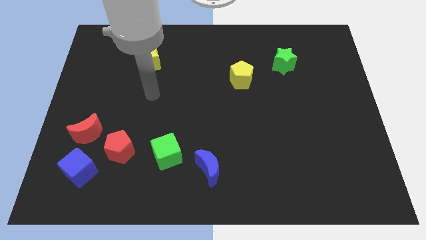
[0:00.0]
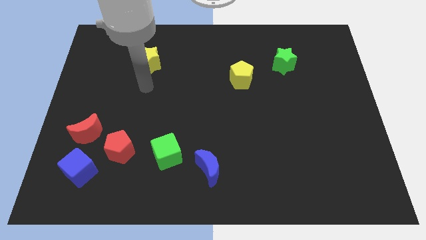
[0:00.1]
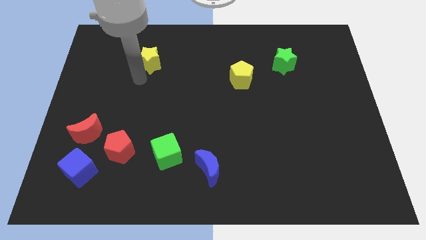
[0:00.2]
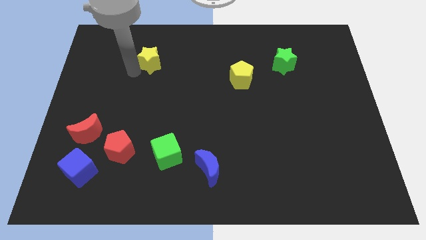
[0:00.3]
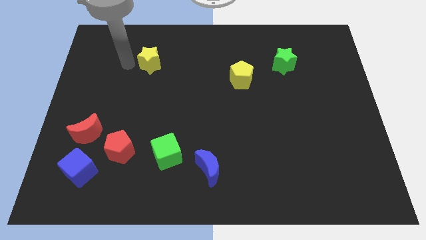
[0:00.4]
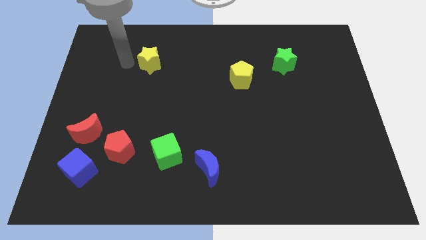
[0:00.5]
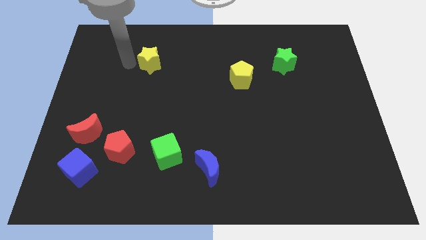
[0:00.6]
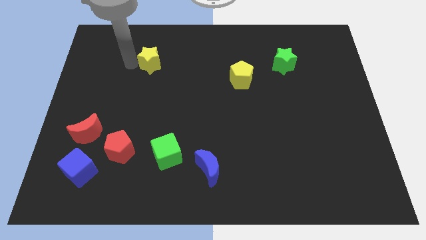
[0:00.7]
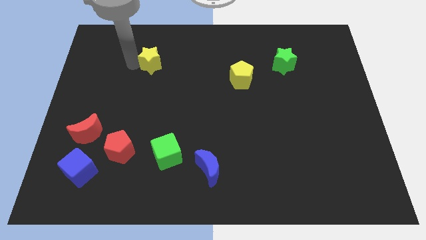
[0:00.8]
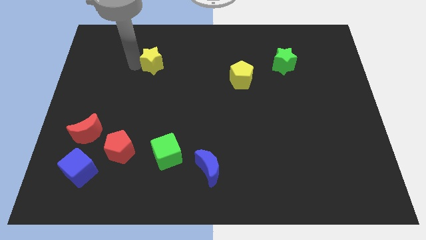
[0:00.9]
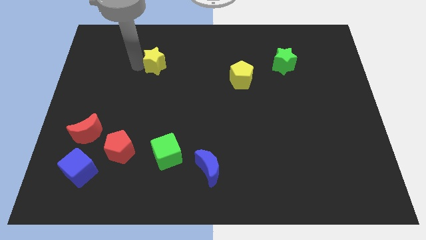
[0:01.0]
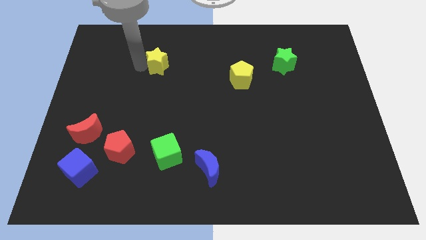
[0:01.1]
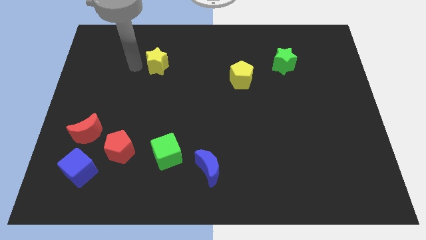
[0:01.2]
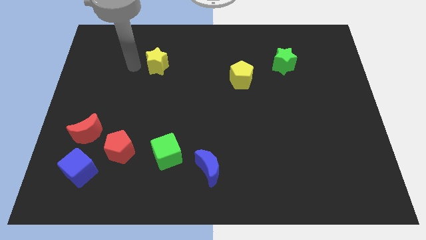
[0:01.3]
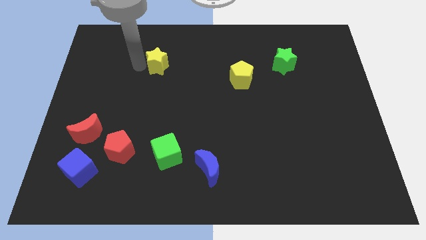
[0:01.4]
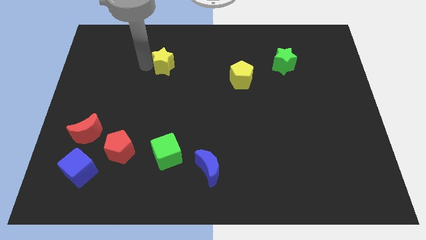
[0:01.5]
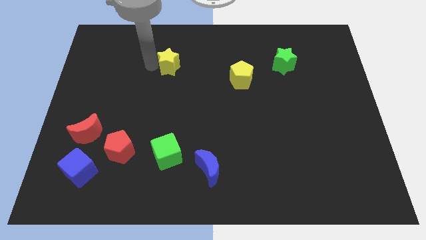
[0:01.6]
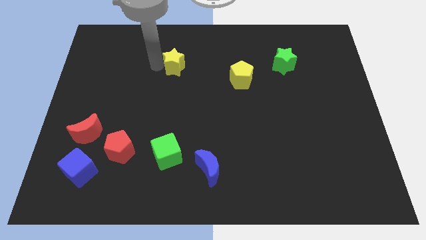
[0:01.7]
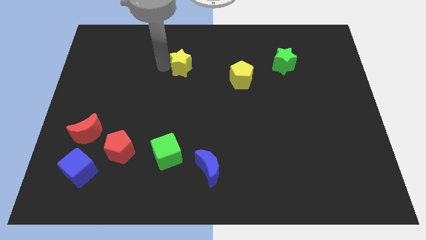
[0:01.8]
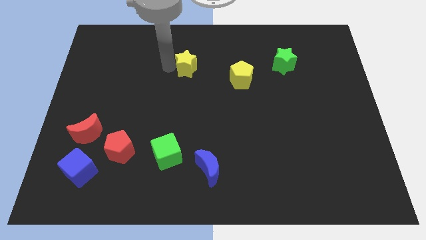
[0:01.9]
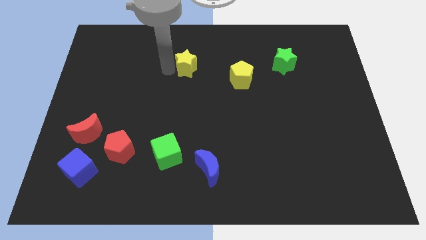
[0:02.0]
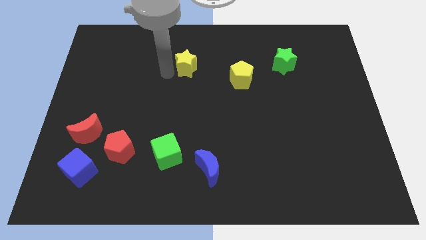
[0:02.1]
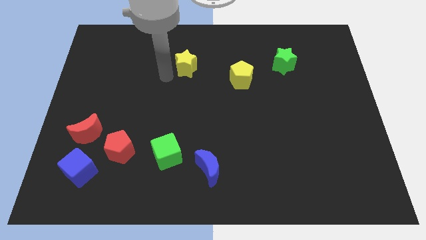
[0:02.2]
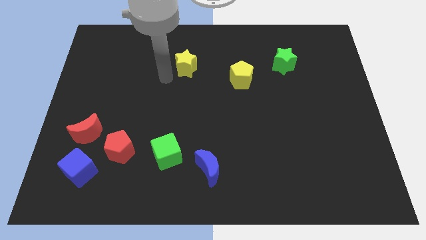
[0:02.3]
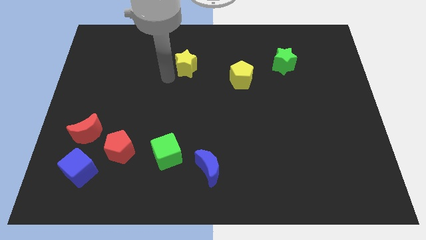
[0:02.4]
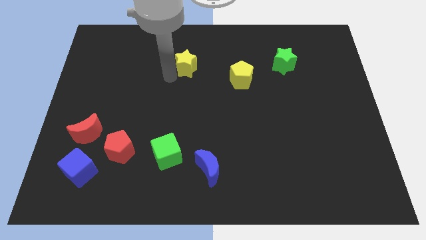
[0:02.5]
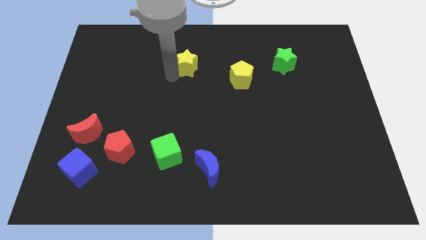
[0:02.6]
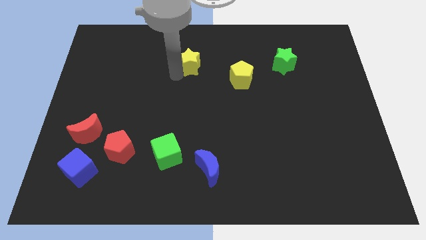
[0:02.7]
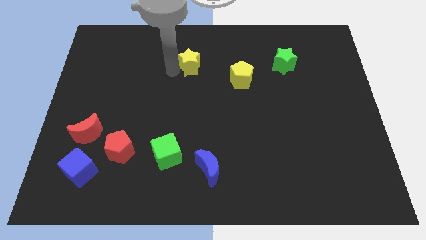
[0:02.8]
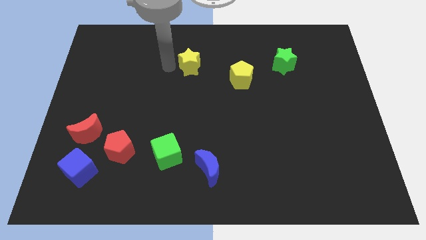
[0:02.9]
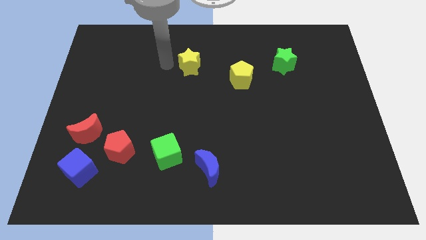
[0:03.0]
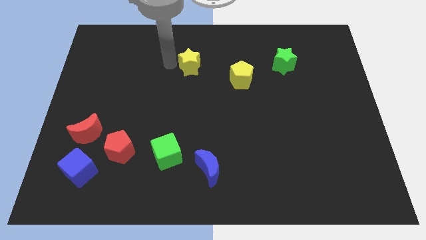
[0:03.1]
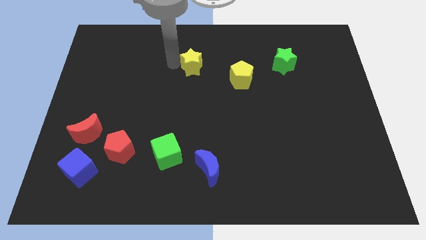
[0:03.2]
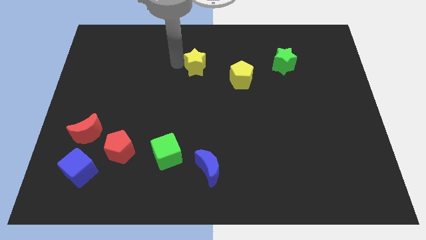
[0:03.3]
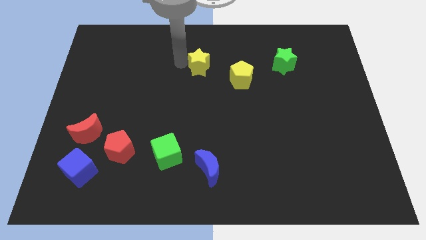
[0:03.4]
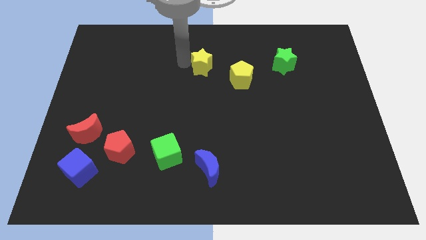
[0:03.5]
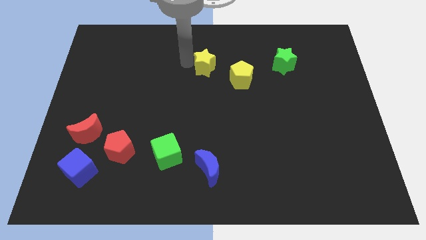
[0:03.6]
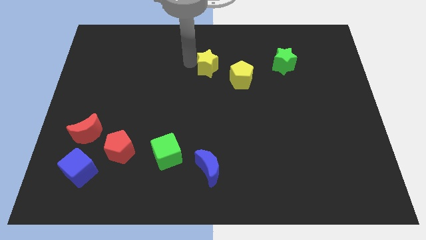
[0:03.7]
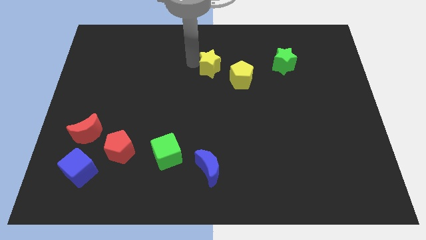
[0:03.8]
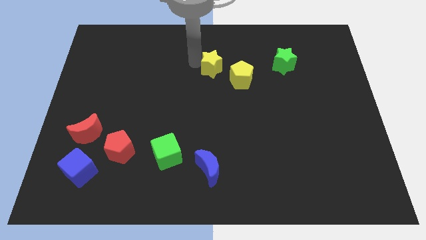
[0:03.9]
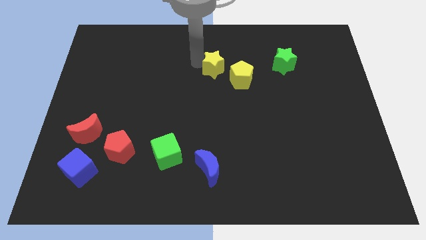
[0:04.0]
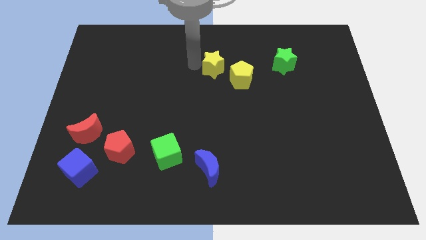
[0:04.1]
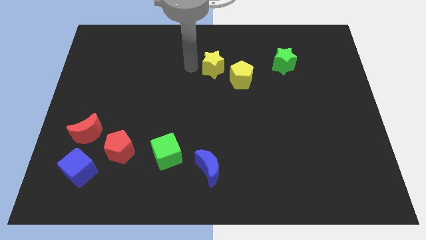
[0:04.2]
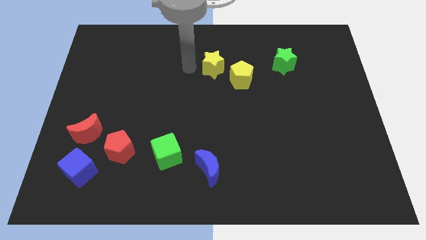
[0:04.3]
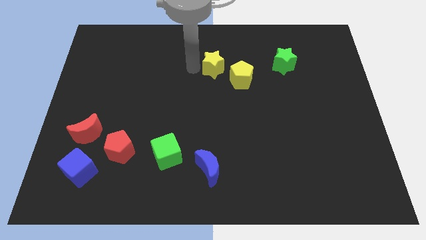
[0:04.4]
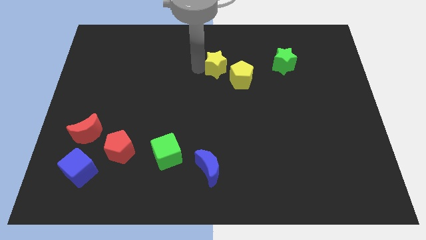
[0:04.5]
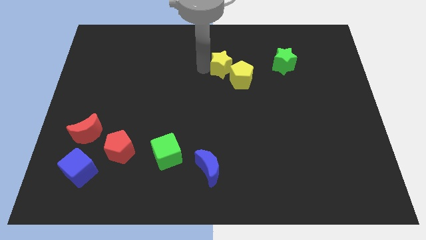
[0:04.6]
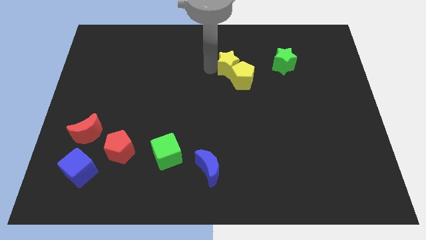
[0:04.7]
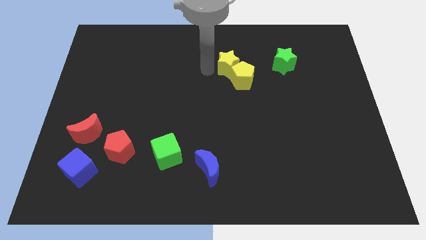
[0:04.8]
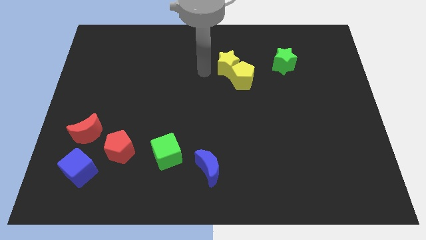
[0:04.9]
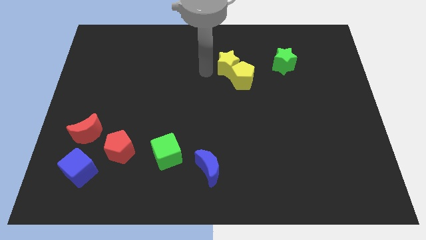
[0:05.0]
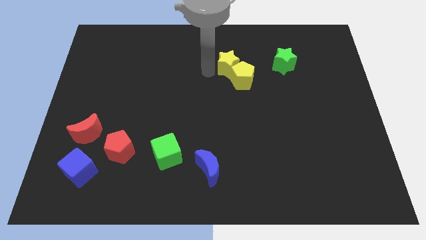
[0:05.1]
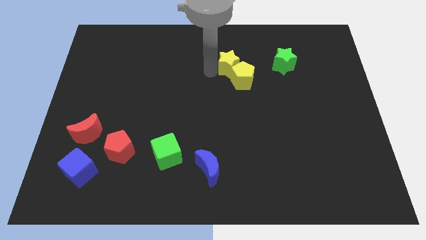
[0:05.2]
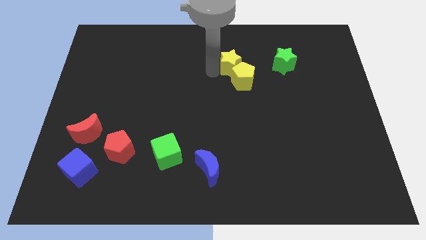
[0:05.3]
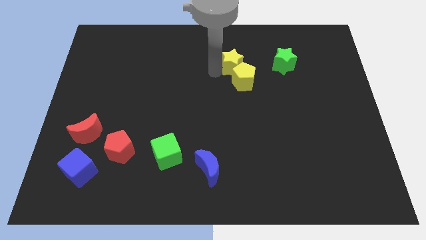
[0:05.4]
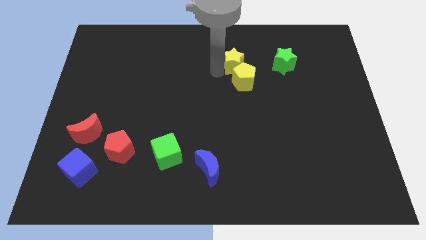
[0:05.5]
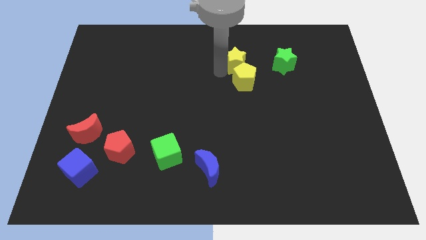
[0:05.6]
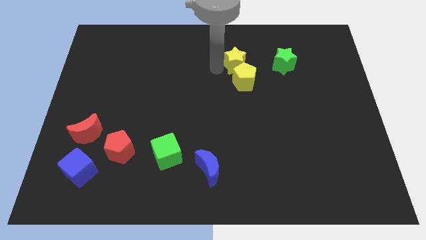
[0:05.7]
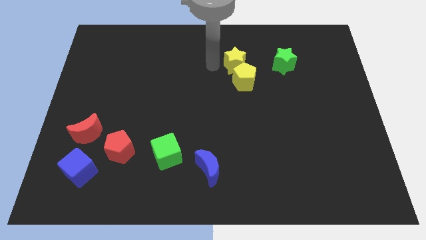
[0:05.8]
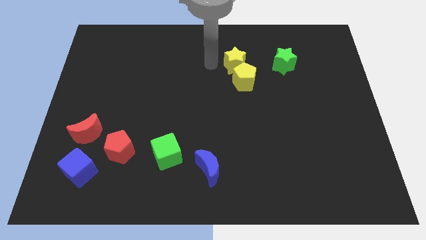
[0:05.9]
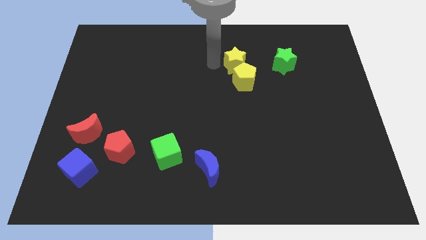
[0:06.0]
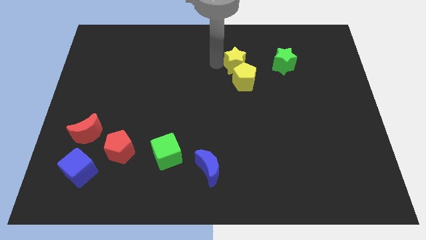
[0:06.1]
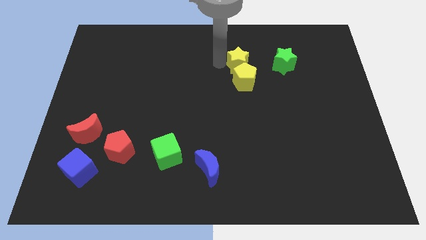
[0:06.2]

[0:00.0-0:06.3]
push the yellow star to the top right of the yellow pentagon

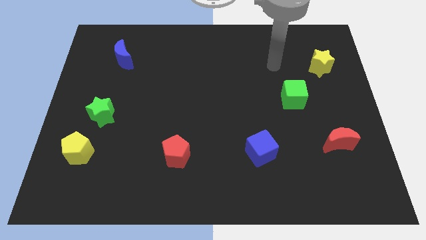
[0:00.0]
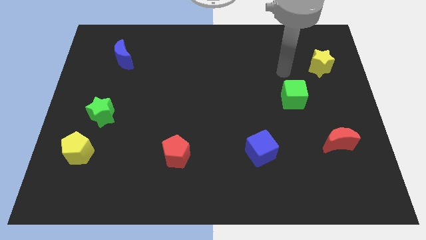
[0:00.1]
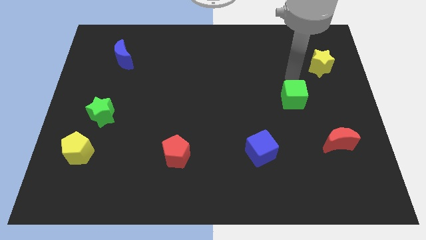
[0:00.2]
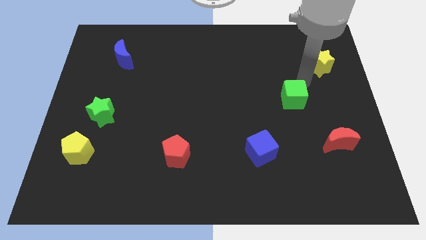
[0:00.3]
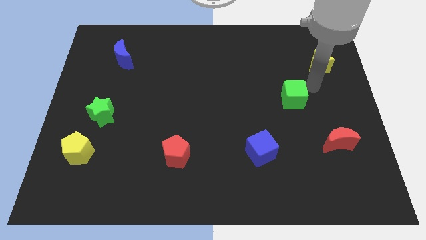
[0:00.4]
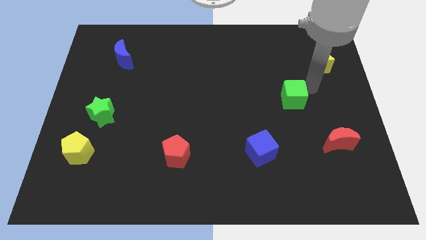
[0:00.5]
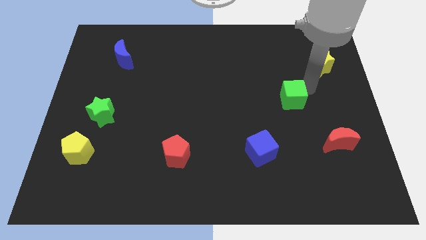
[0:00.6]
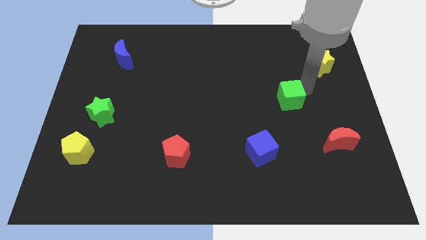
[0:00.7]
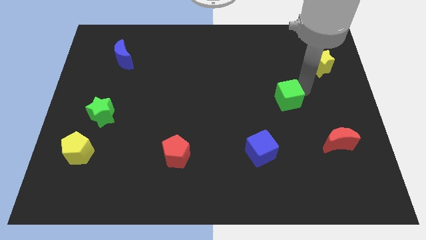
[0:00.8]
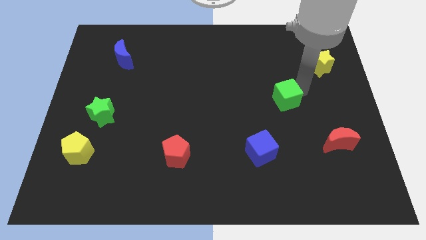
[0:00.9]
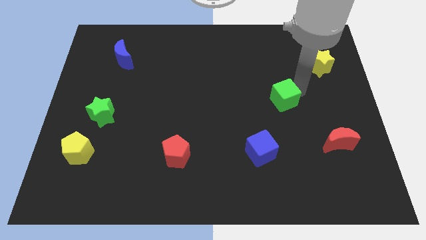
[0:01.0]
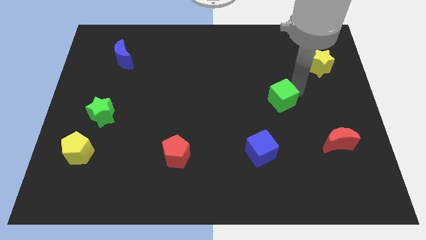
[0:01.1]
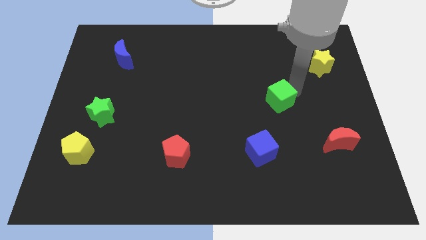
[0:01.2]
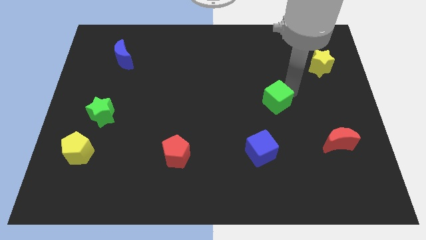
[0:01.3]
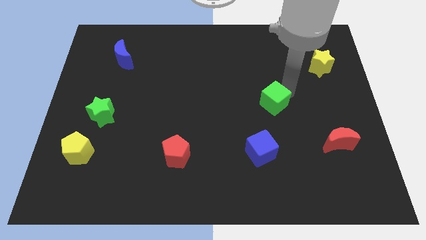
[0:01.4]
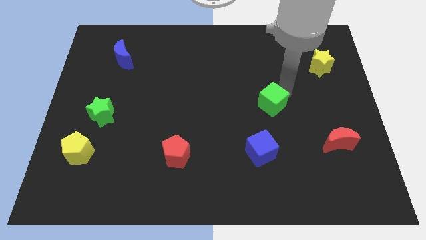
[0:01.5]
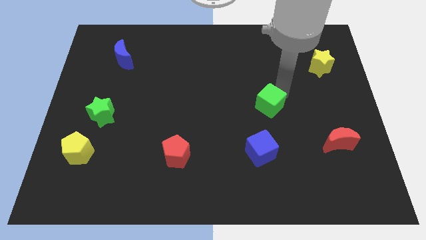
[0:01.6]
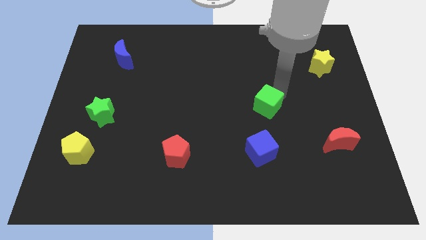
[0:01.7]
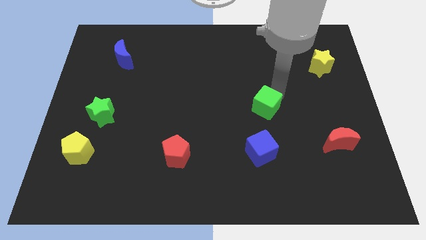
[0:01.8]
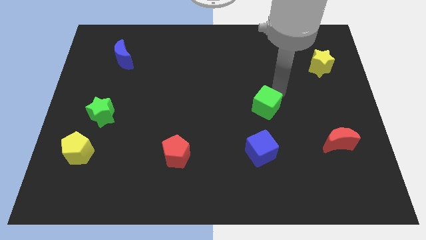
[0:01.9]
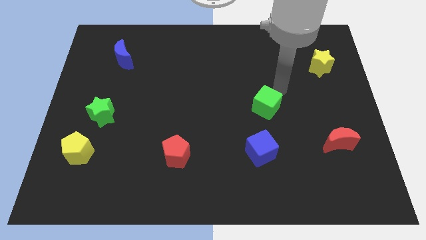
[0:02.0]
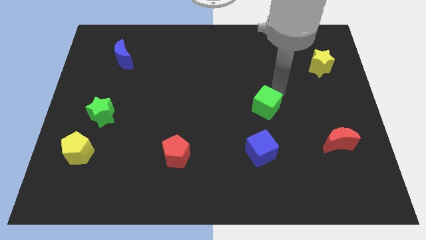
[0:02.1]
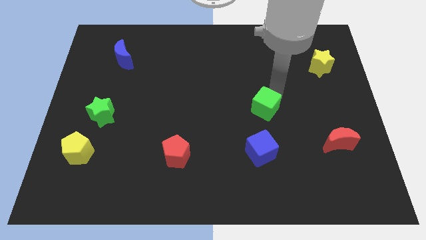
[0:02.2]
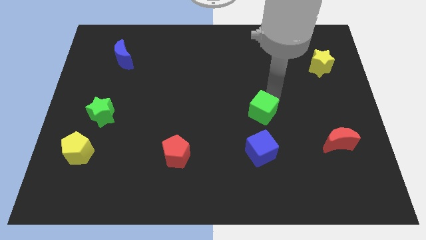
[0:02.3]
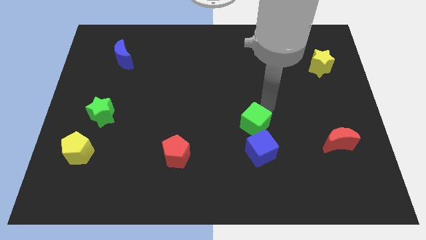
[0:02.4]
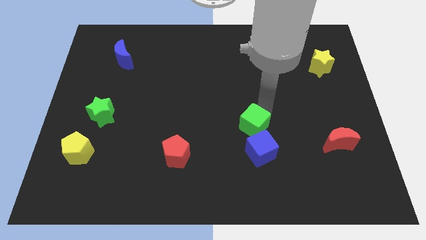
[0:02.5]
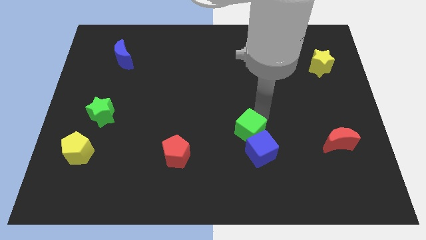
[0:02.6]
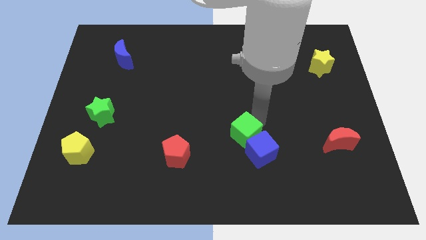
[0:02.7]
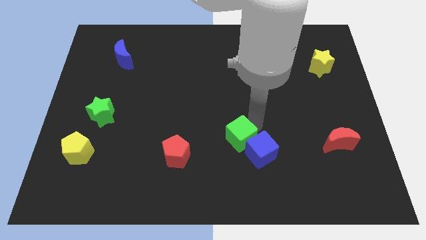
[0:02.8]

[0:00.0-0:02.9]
slide the green cube right of the red pentagon
